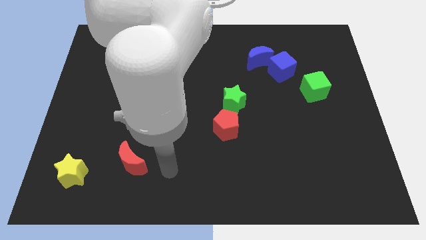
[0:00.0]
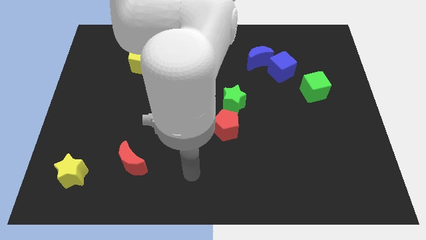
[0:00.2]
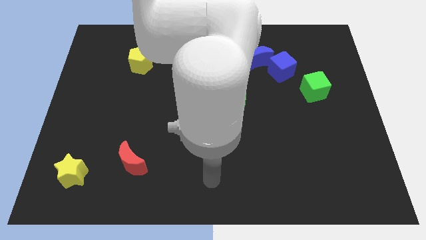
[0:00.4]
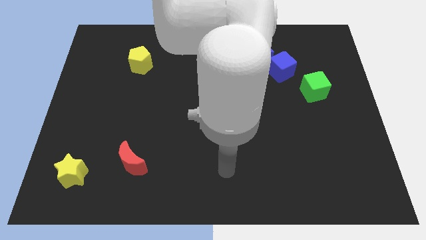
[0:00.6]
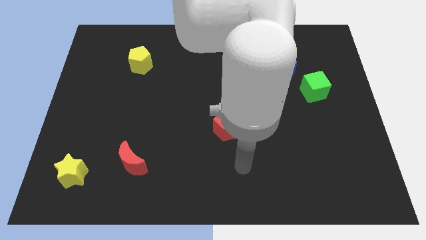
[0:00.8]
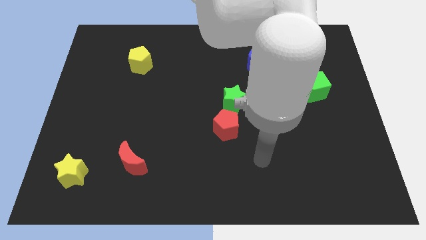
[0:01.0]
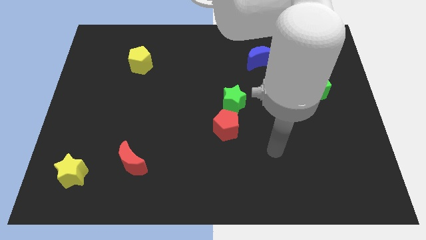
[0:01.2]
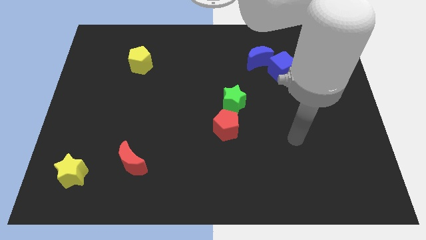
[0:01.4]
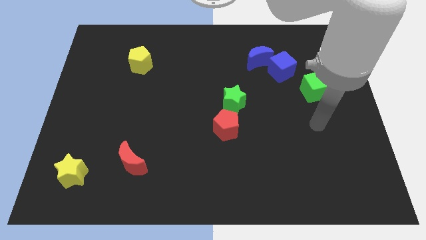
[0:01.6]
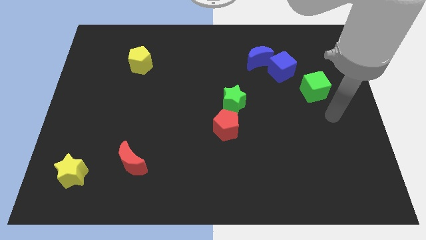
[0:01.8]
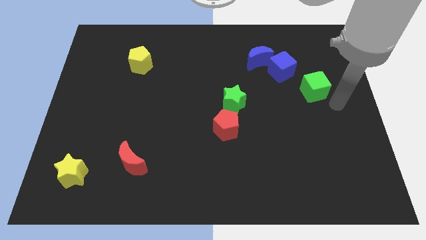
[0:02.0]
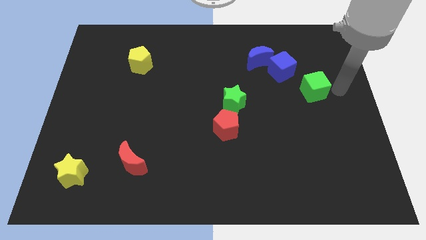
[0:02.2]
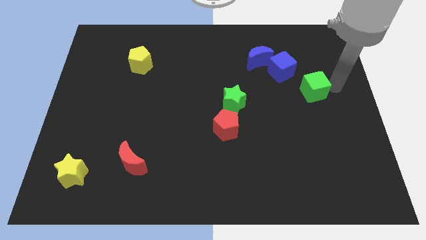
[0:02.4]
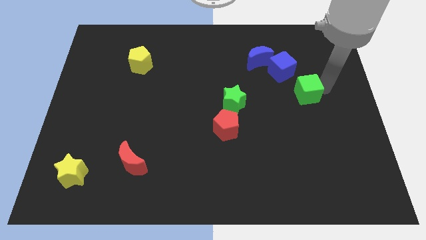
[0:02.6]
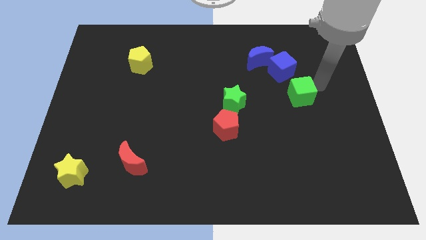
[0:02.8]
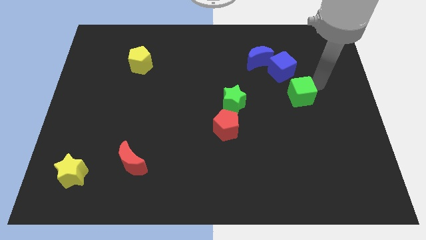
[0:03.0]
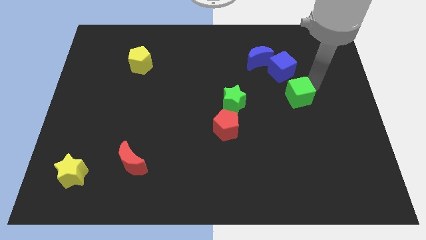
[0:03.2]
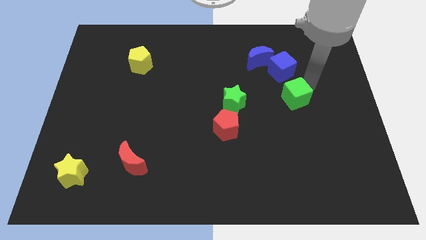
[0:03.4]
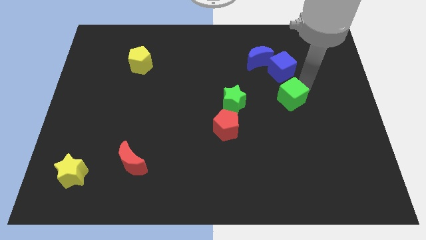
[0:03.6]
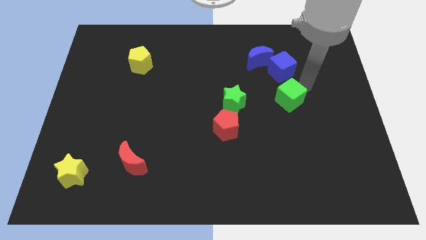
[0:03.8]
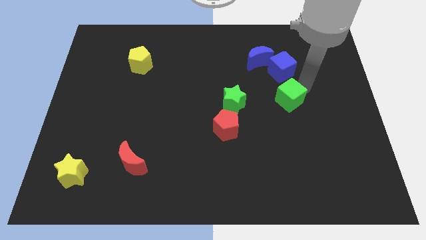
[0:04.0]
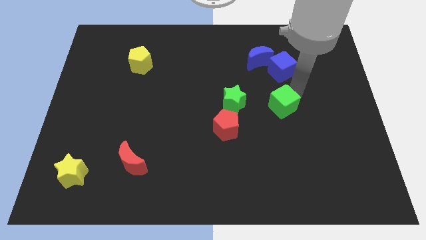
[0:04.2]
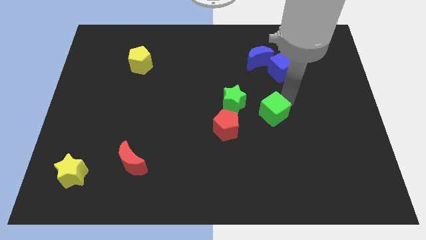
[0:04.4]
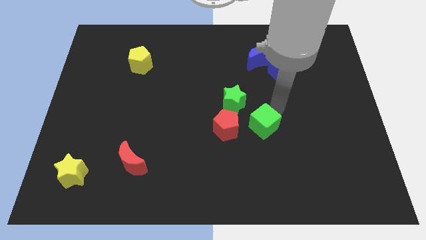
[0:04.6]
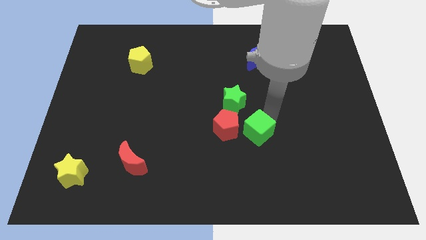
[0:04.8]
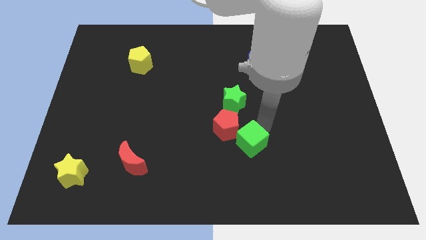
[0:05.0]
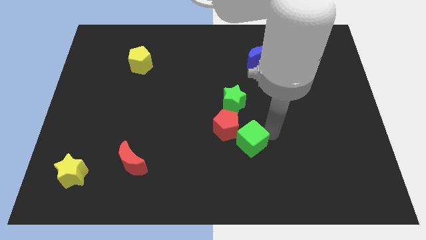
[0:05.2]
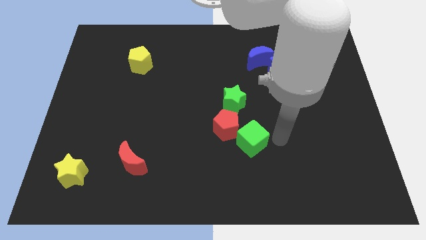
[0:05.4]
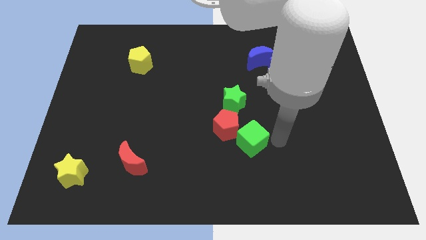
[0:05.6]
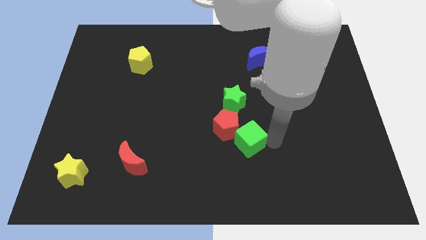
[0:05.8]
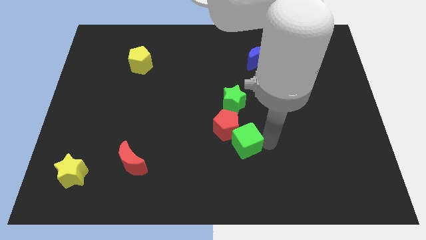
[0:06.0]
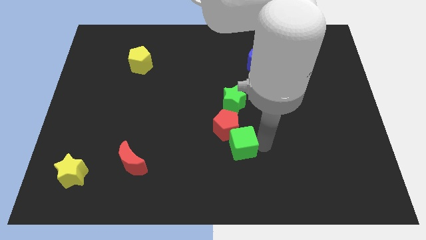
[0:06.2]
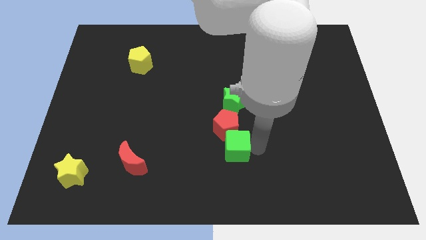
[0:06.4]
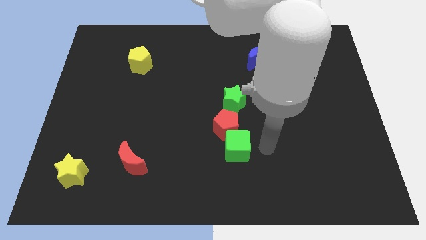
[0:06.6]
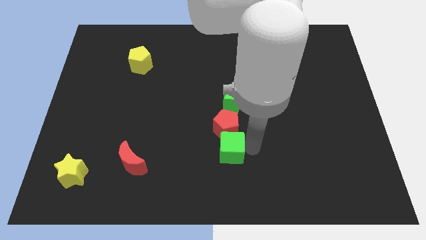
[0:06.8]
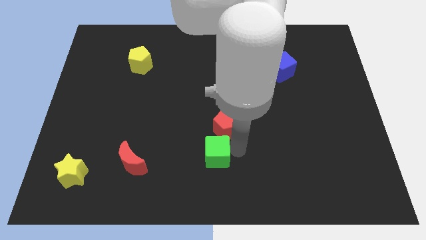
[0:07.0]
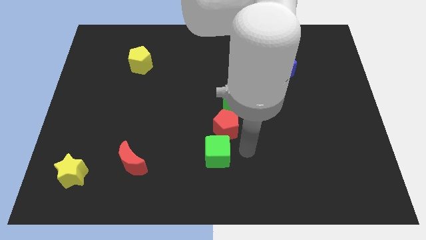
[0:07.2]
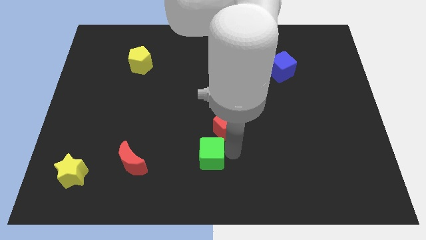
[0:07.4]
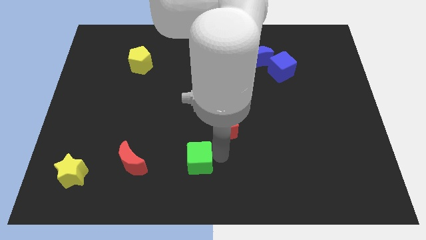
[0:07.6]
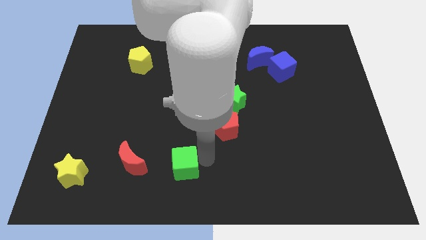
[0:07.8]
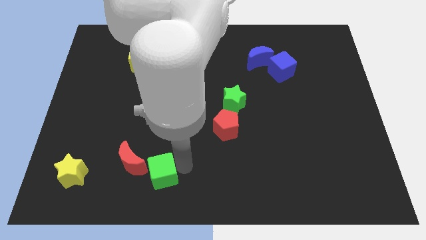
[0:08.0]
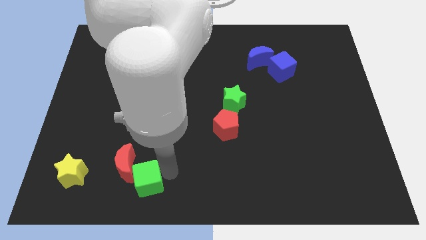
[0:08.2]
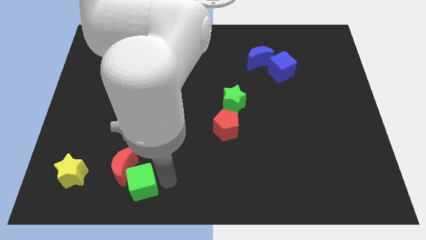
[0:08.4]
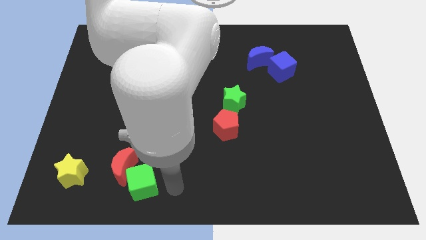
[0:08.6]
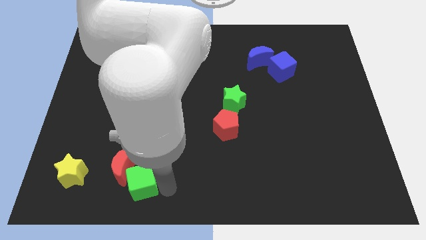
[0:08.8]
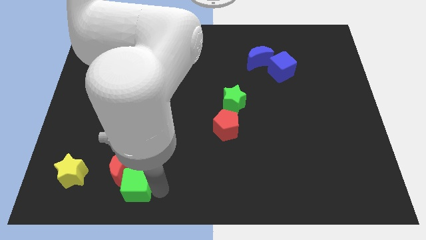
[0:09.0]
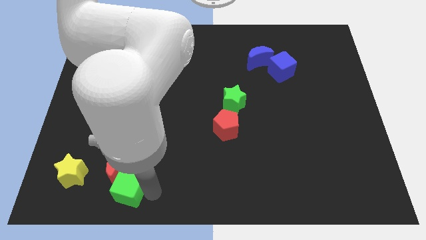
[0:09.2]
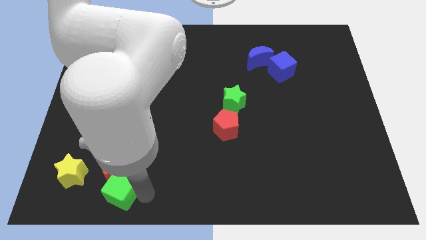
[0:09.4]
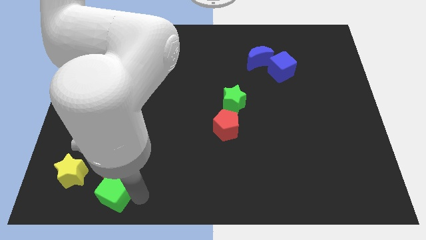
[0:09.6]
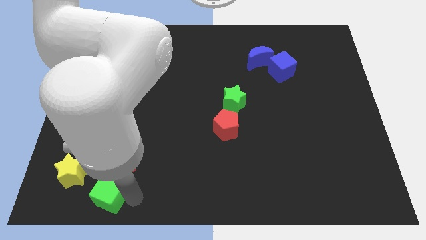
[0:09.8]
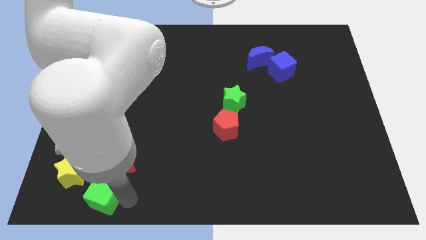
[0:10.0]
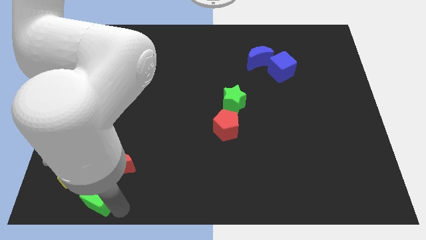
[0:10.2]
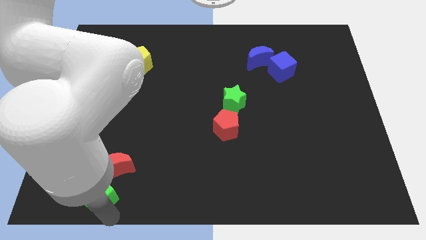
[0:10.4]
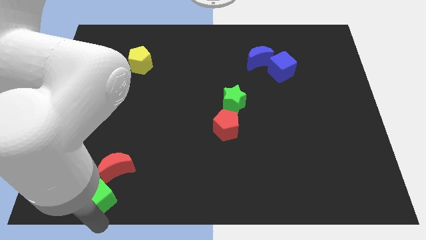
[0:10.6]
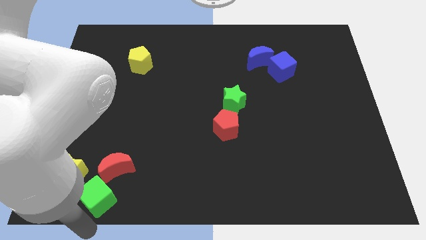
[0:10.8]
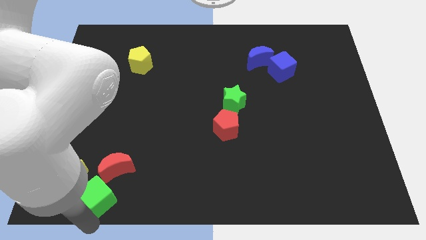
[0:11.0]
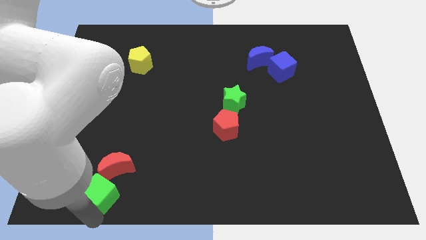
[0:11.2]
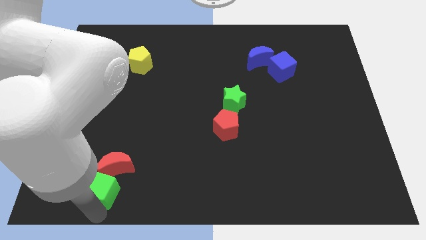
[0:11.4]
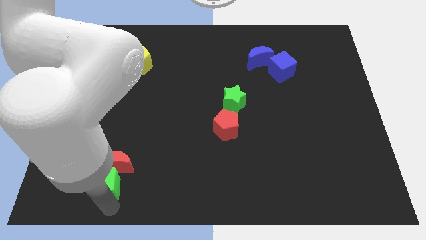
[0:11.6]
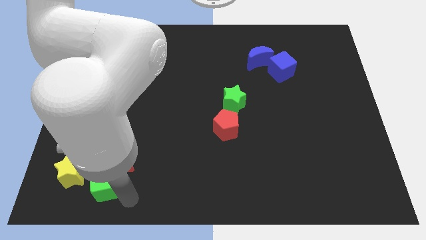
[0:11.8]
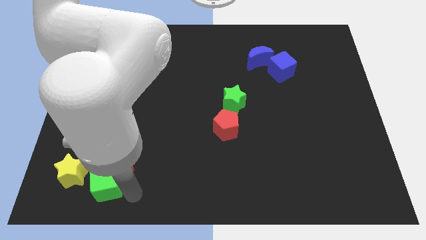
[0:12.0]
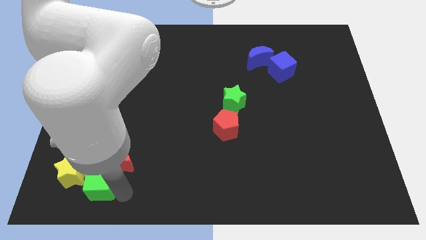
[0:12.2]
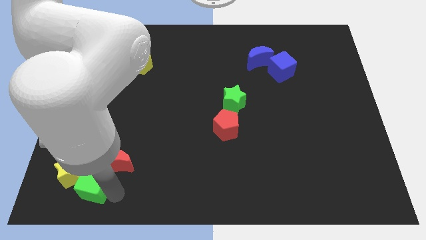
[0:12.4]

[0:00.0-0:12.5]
push the green cube next to the yellow star

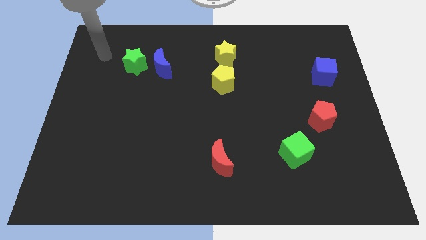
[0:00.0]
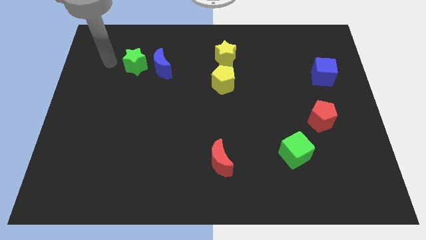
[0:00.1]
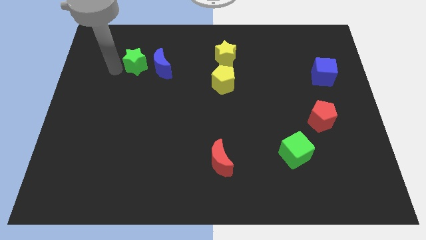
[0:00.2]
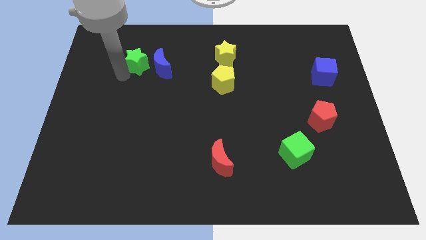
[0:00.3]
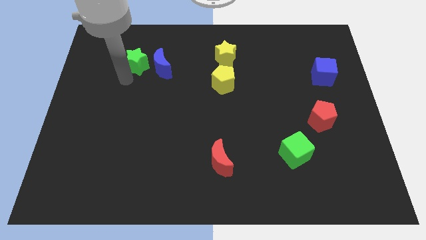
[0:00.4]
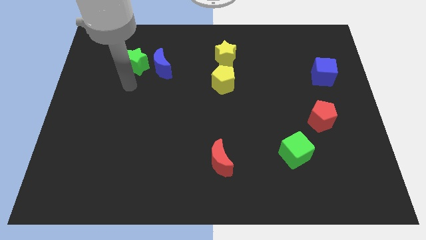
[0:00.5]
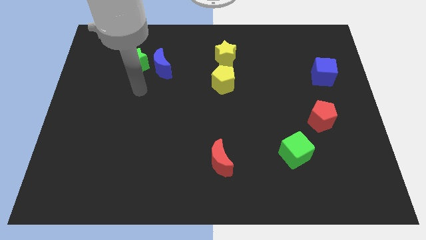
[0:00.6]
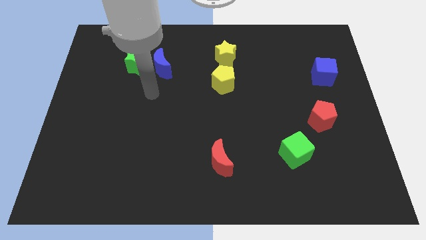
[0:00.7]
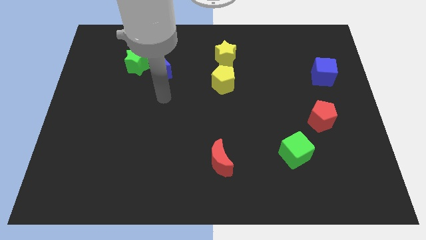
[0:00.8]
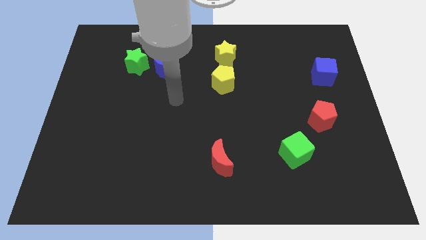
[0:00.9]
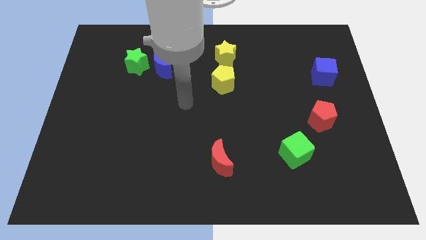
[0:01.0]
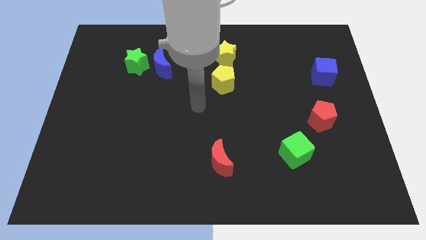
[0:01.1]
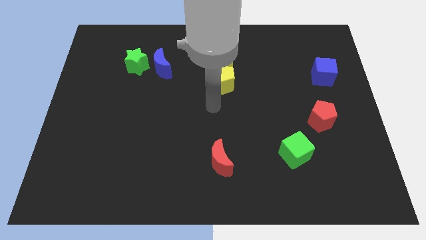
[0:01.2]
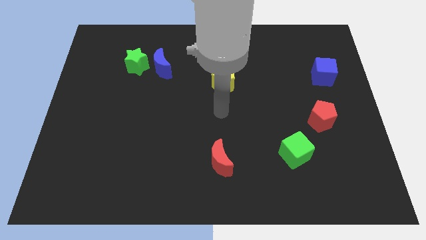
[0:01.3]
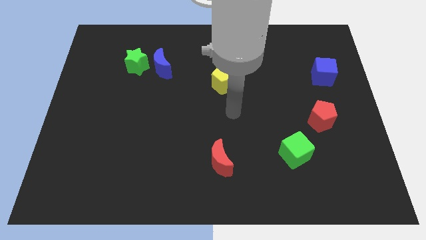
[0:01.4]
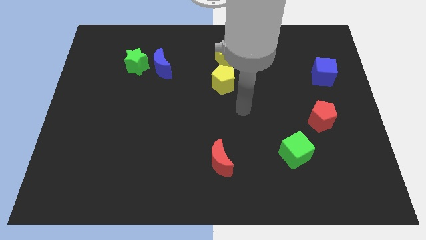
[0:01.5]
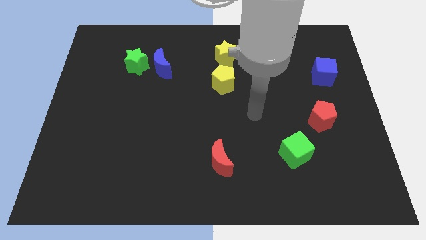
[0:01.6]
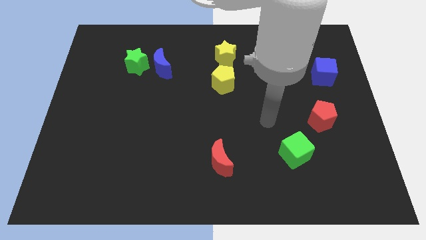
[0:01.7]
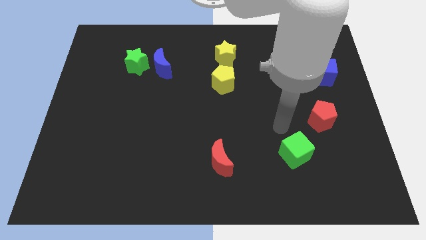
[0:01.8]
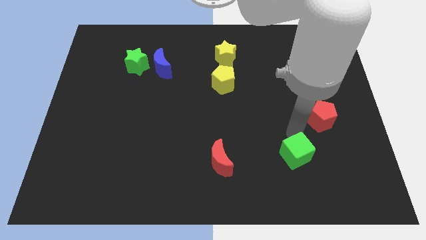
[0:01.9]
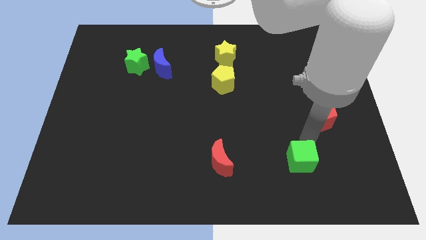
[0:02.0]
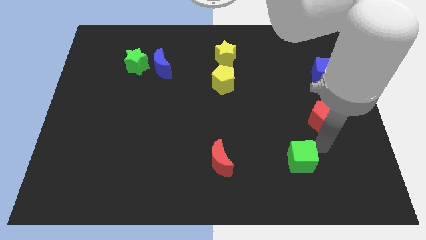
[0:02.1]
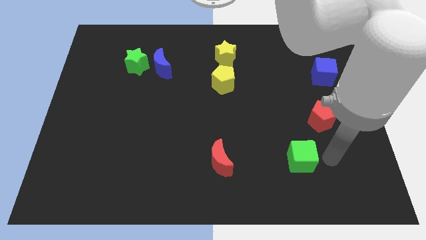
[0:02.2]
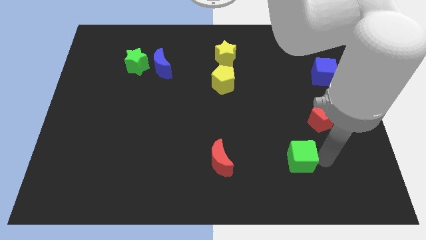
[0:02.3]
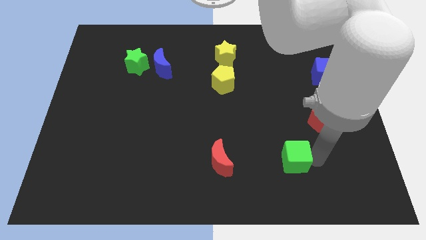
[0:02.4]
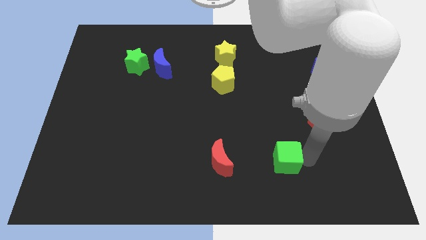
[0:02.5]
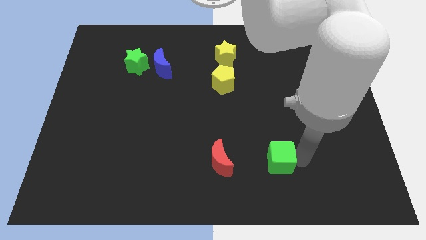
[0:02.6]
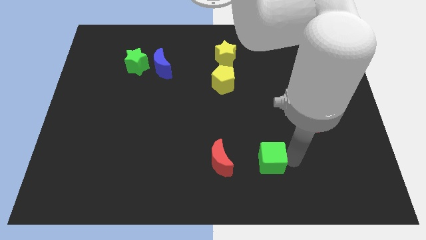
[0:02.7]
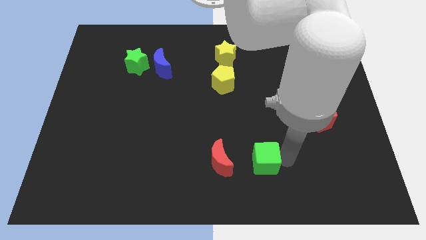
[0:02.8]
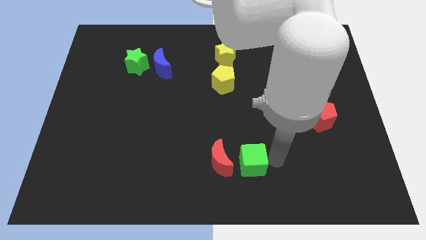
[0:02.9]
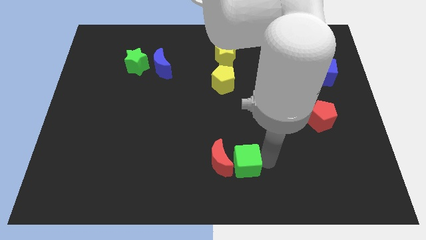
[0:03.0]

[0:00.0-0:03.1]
put the green cube to the red moon
